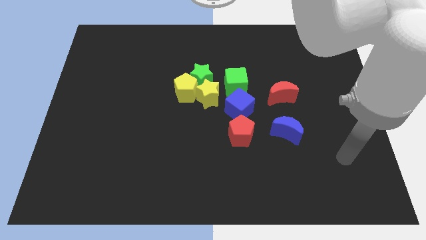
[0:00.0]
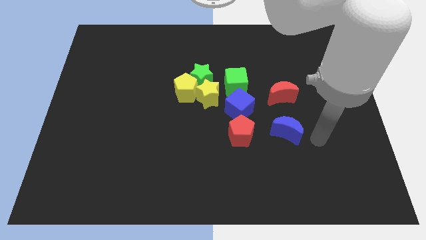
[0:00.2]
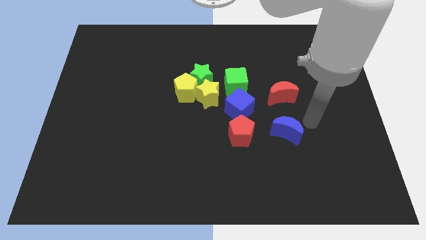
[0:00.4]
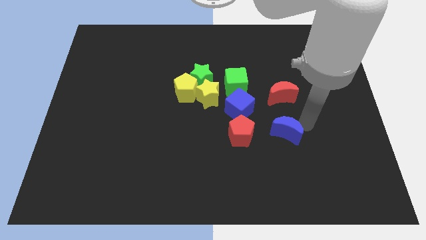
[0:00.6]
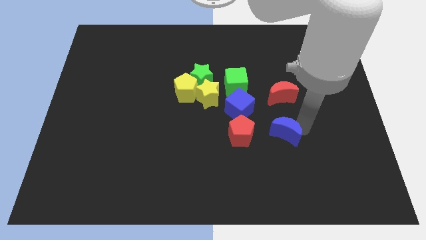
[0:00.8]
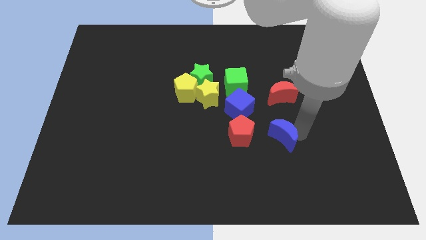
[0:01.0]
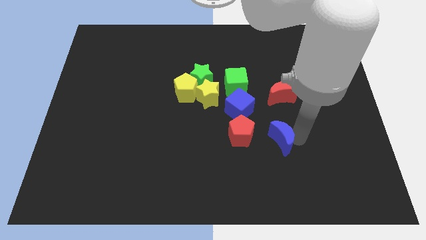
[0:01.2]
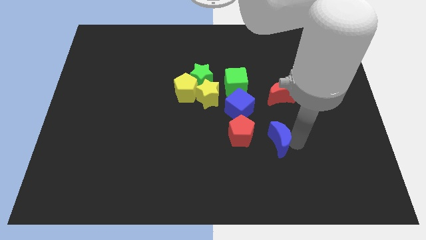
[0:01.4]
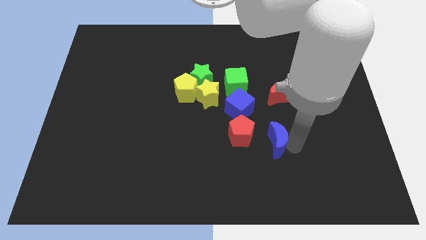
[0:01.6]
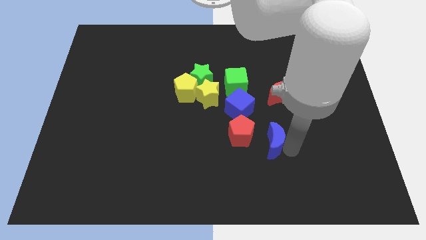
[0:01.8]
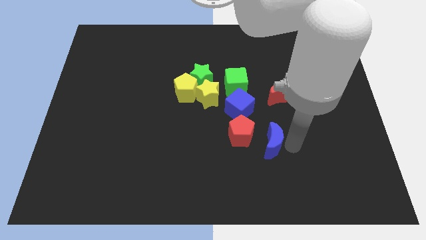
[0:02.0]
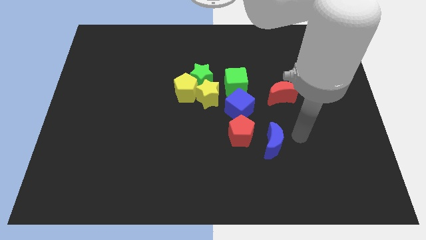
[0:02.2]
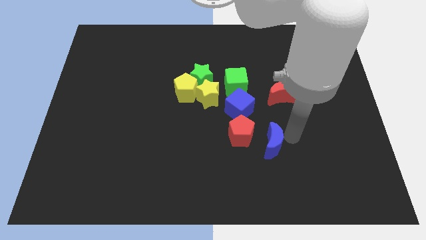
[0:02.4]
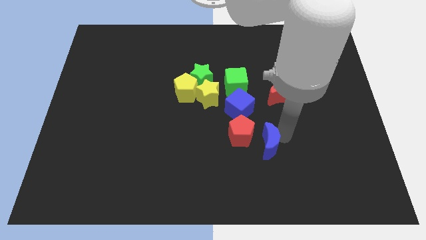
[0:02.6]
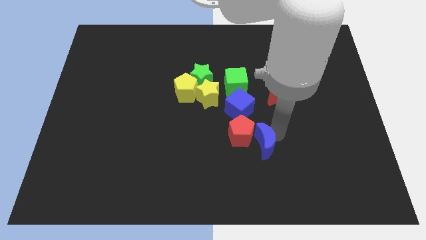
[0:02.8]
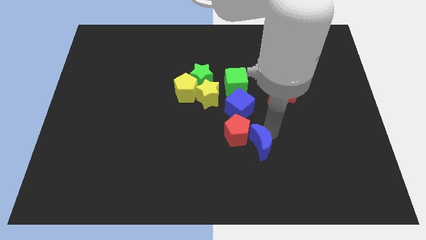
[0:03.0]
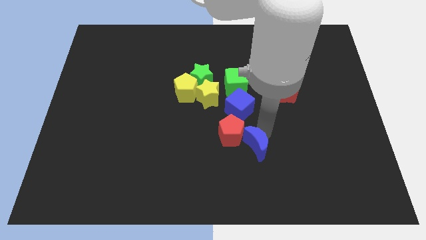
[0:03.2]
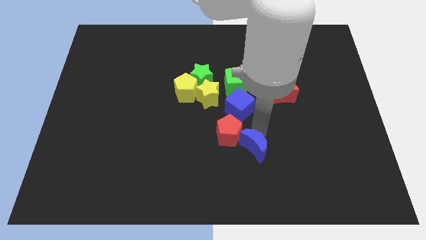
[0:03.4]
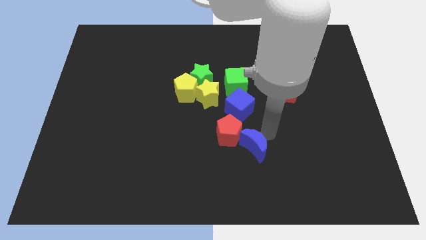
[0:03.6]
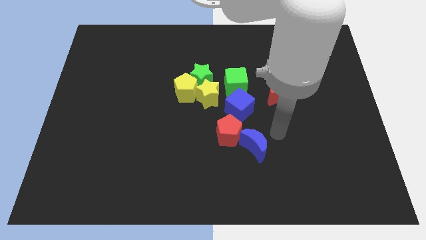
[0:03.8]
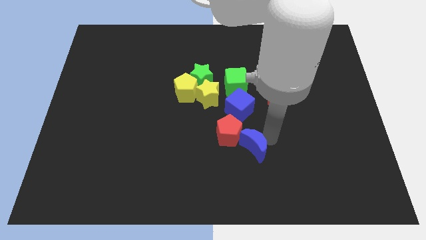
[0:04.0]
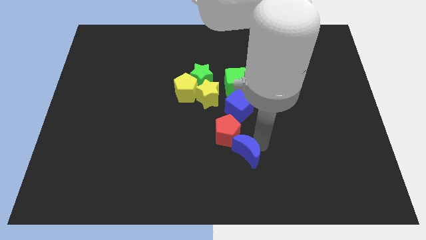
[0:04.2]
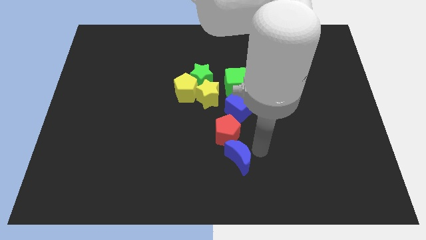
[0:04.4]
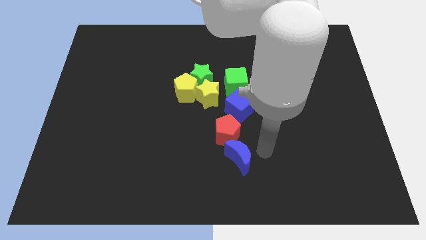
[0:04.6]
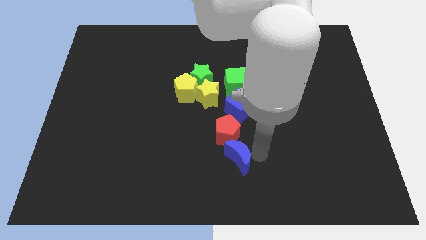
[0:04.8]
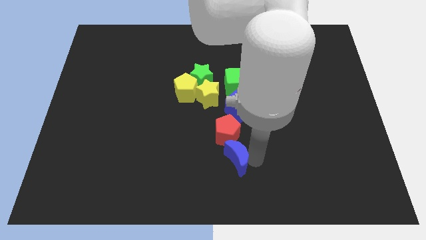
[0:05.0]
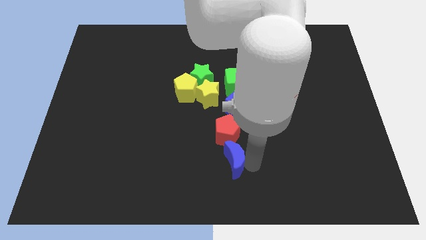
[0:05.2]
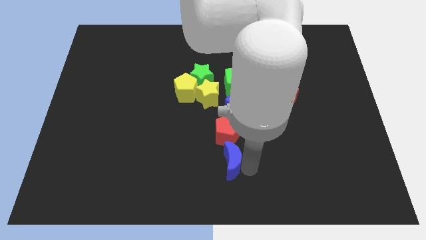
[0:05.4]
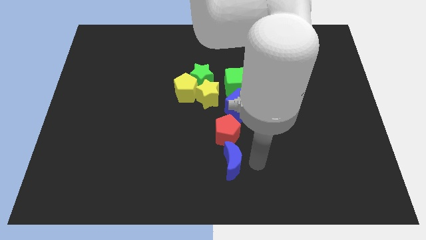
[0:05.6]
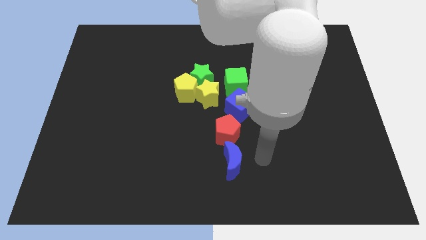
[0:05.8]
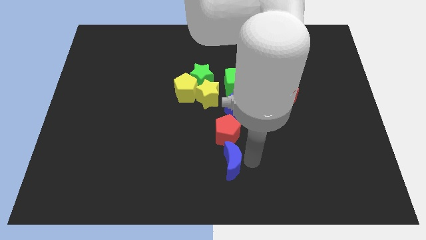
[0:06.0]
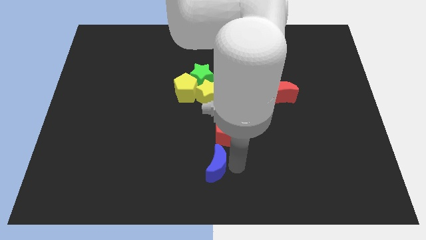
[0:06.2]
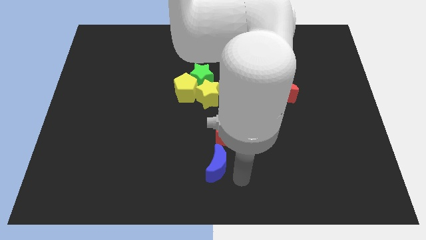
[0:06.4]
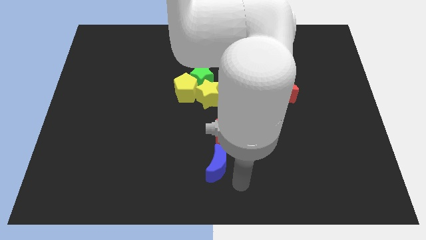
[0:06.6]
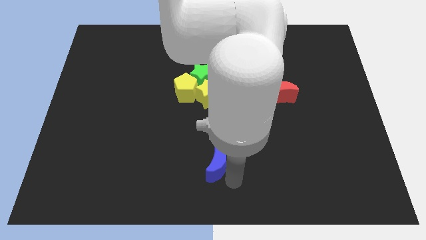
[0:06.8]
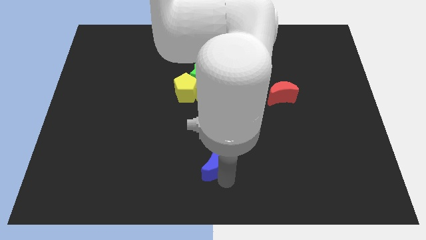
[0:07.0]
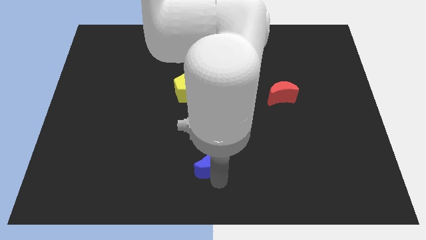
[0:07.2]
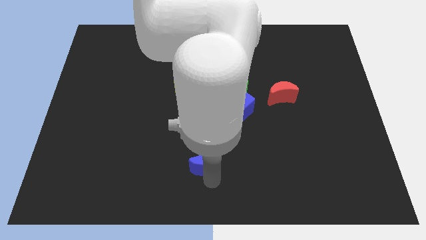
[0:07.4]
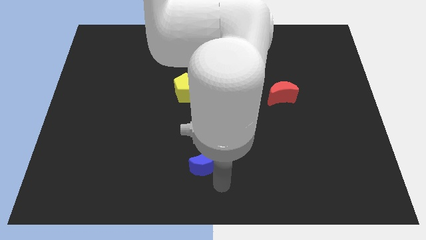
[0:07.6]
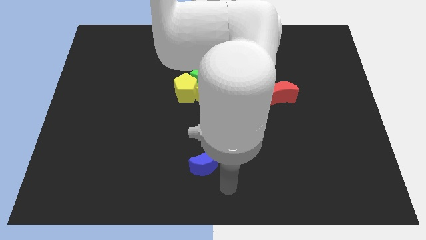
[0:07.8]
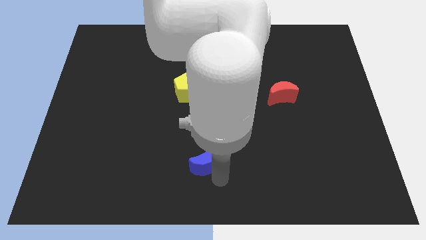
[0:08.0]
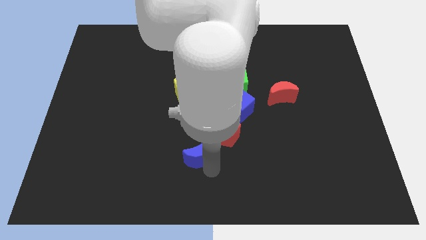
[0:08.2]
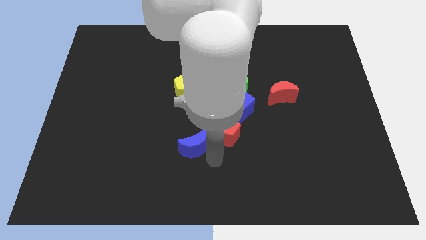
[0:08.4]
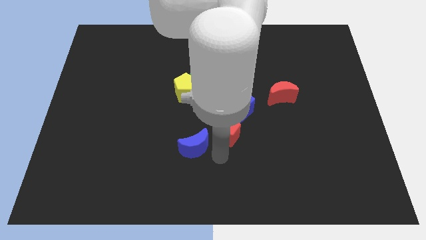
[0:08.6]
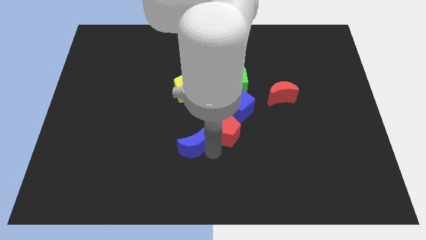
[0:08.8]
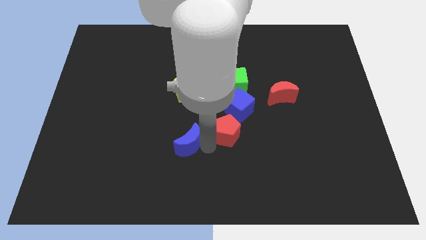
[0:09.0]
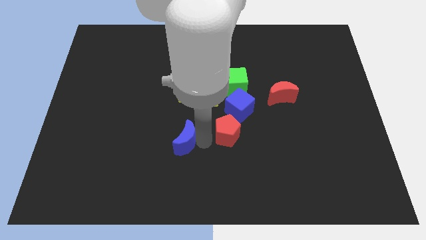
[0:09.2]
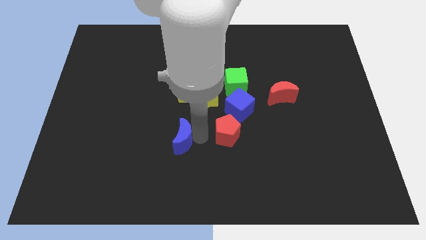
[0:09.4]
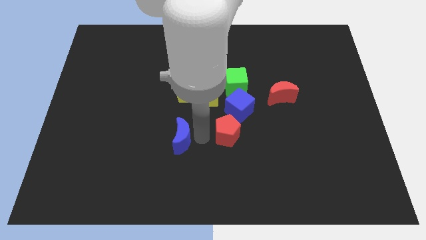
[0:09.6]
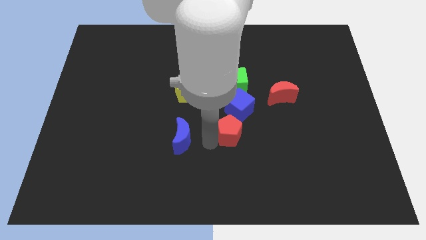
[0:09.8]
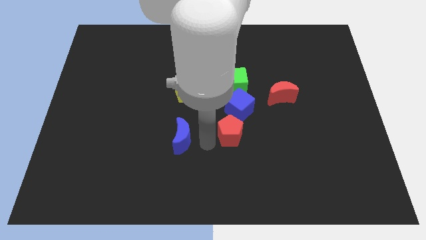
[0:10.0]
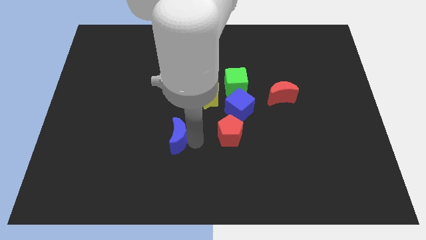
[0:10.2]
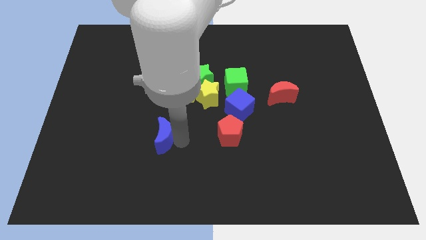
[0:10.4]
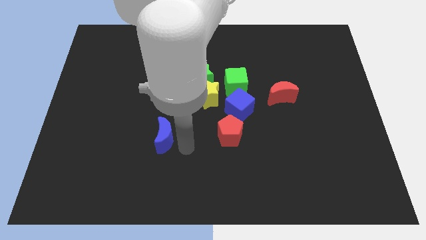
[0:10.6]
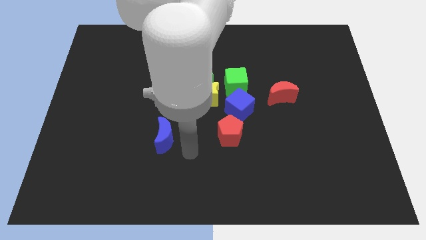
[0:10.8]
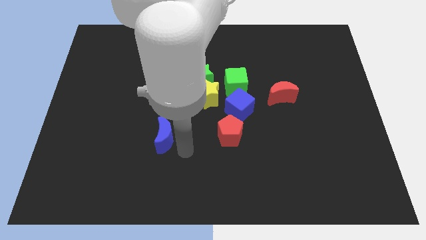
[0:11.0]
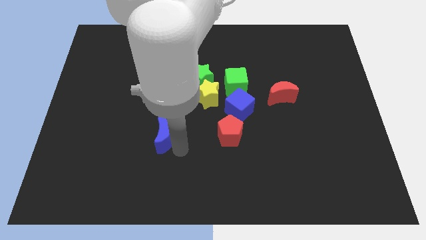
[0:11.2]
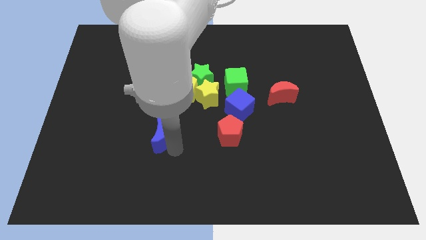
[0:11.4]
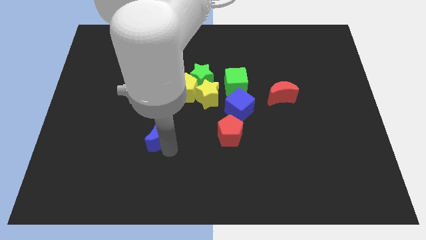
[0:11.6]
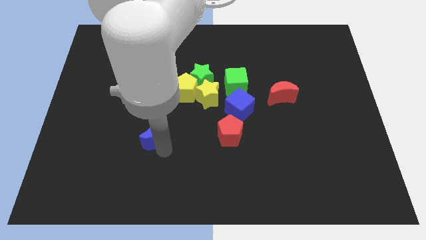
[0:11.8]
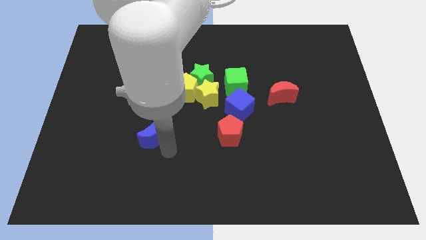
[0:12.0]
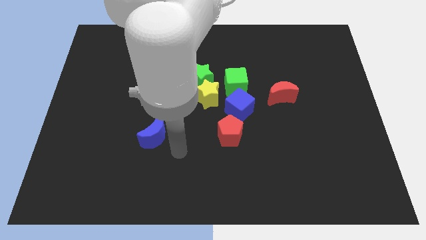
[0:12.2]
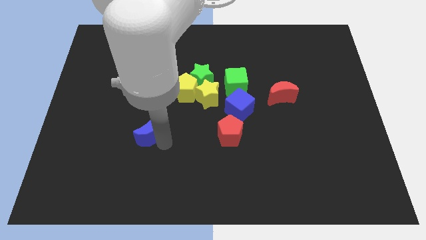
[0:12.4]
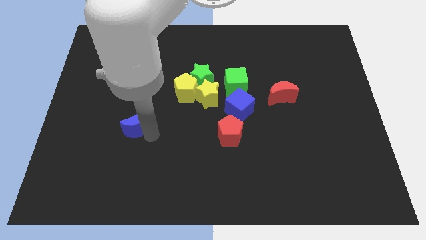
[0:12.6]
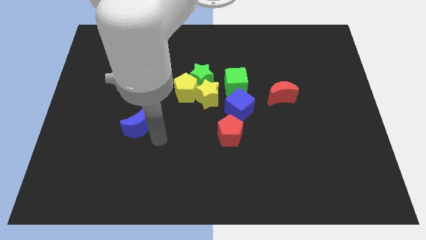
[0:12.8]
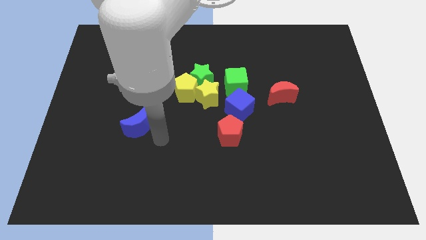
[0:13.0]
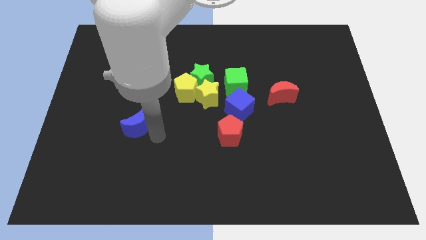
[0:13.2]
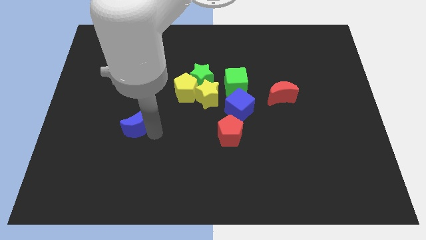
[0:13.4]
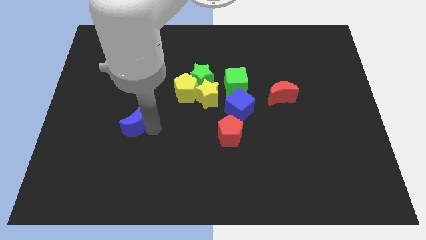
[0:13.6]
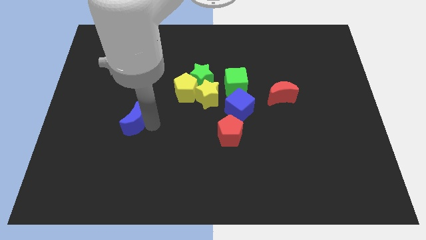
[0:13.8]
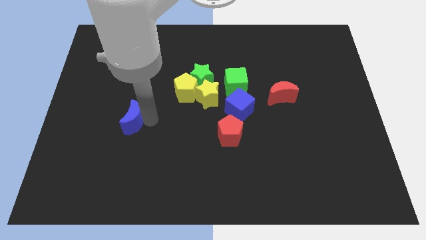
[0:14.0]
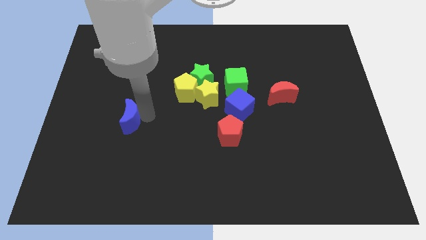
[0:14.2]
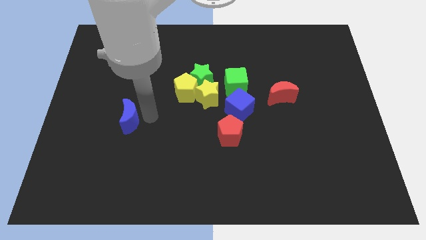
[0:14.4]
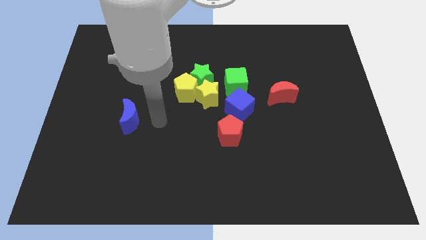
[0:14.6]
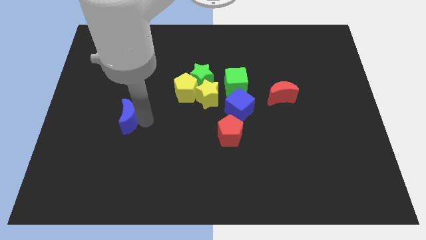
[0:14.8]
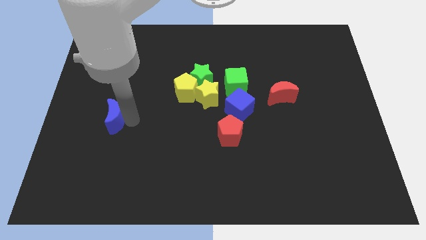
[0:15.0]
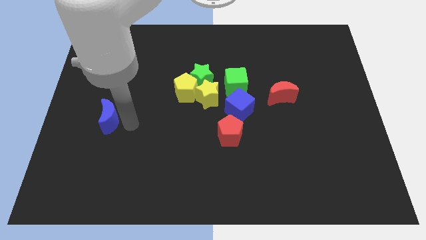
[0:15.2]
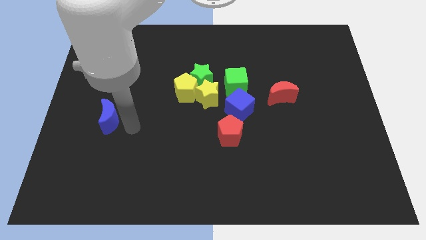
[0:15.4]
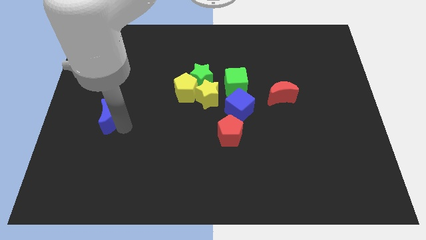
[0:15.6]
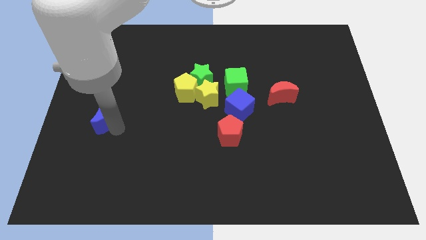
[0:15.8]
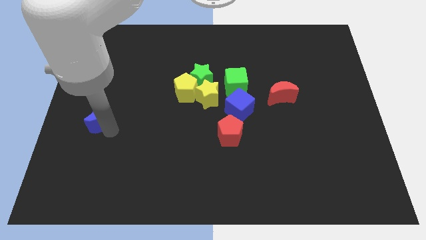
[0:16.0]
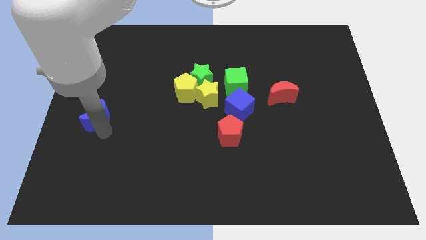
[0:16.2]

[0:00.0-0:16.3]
slide the blue moon to the center left
